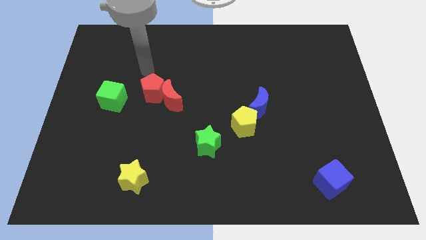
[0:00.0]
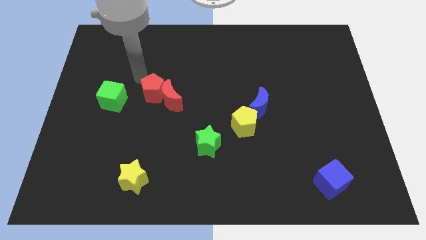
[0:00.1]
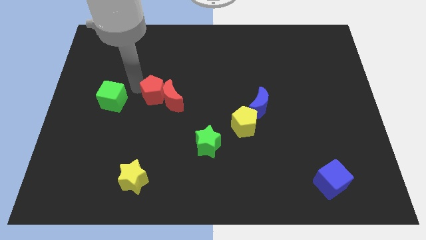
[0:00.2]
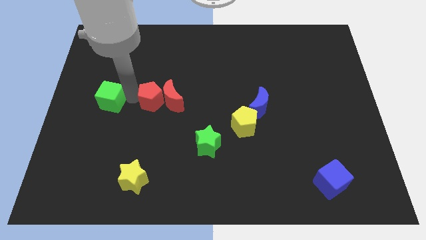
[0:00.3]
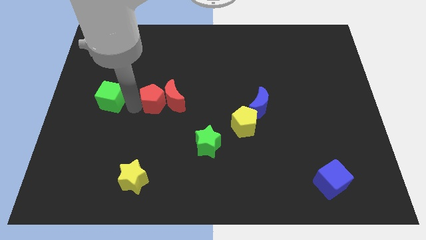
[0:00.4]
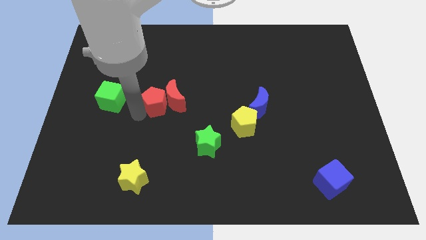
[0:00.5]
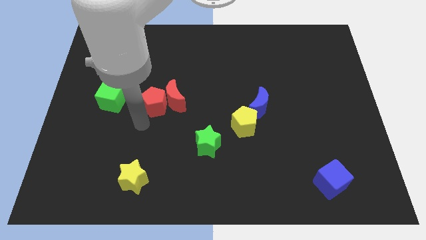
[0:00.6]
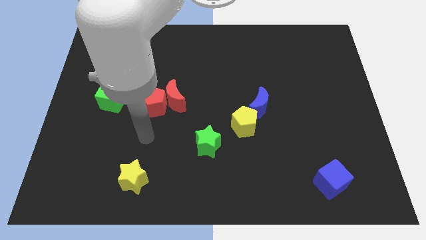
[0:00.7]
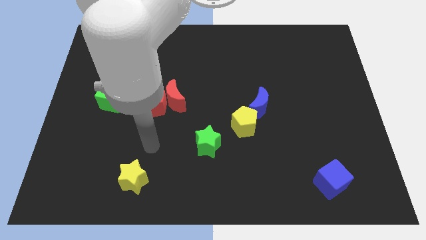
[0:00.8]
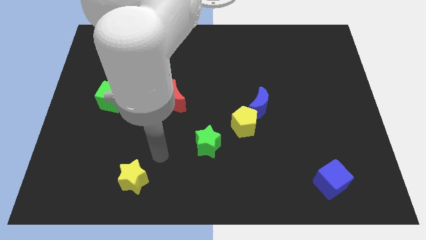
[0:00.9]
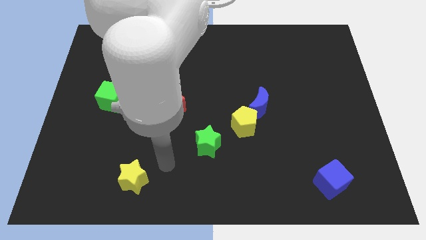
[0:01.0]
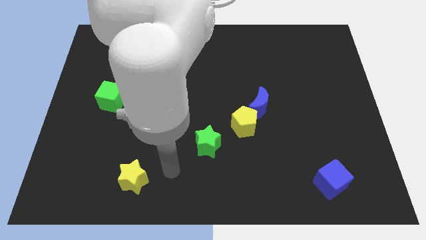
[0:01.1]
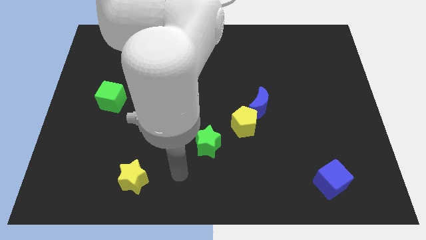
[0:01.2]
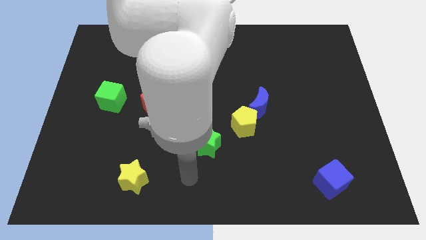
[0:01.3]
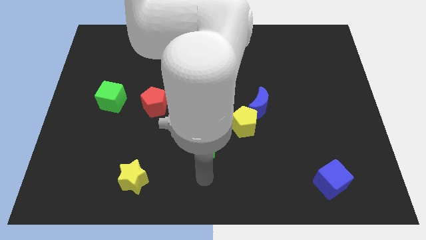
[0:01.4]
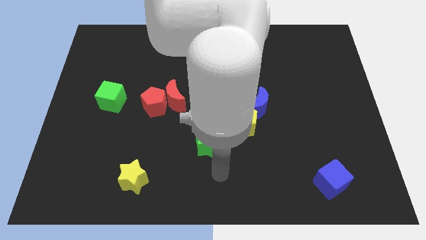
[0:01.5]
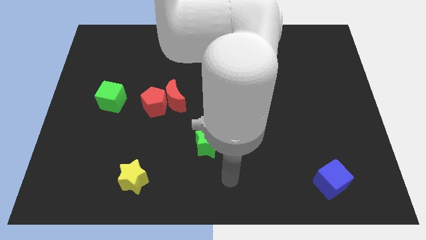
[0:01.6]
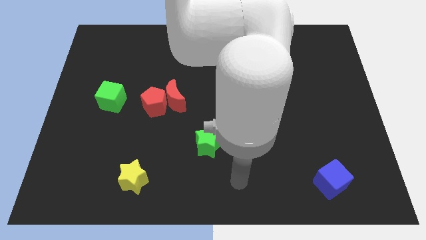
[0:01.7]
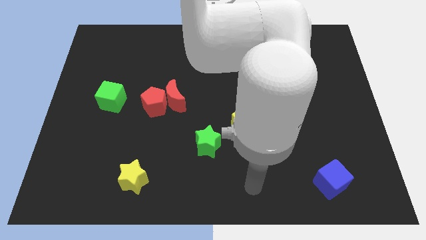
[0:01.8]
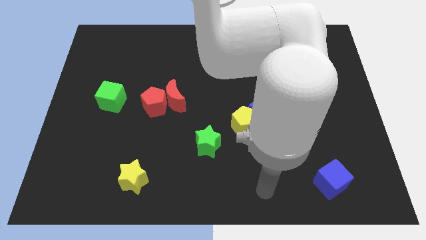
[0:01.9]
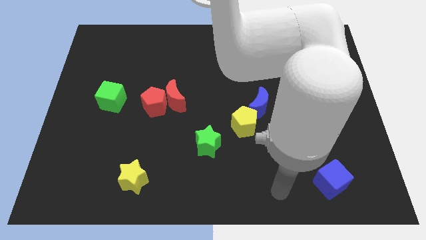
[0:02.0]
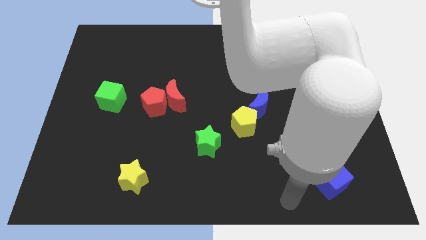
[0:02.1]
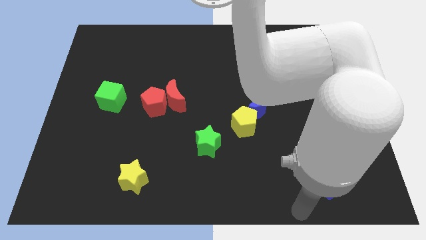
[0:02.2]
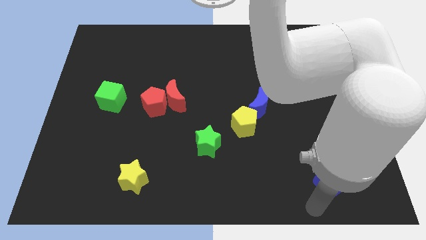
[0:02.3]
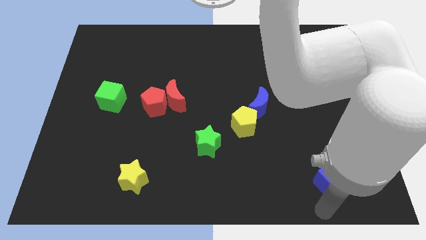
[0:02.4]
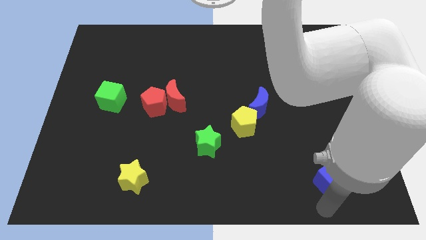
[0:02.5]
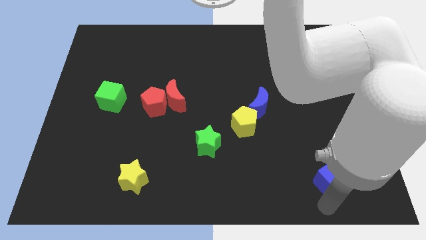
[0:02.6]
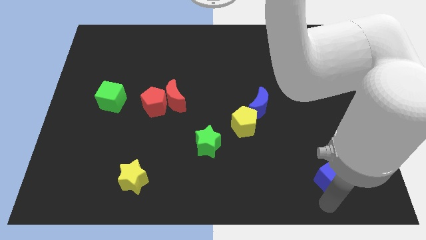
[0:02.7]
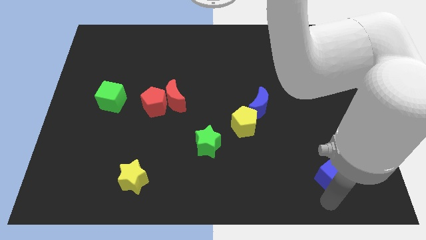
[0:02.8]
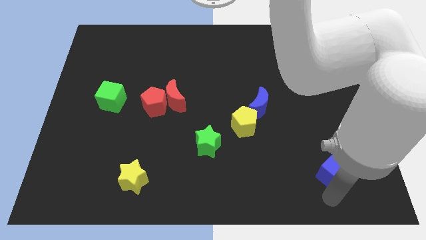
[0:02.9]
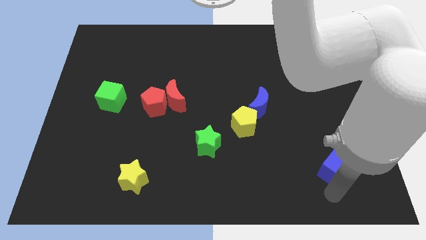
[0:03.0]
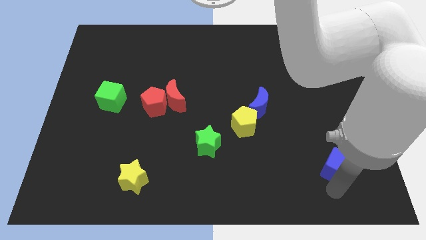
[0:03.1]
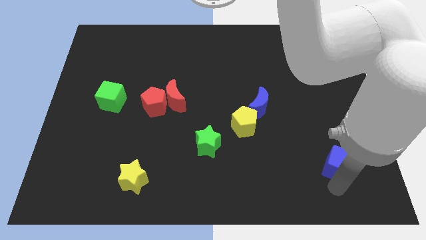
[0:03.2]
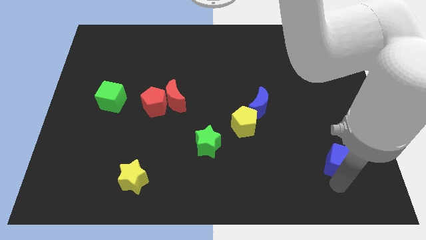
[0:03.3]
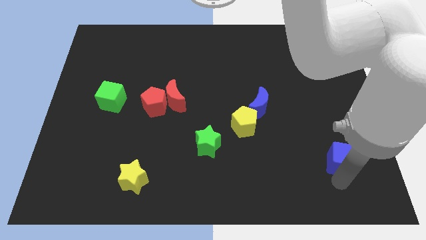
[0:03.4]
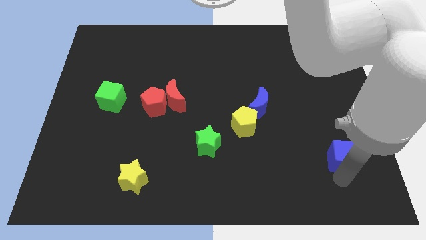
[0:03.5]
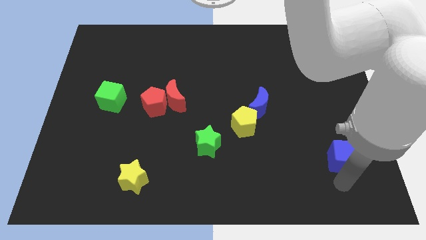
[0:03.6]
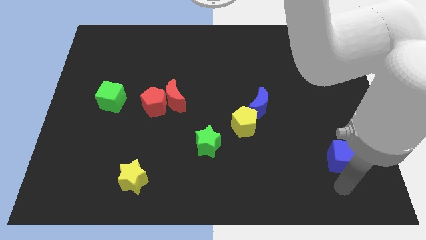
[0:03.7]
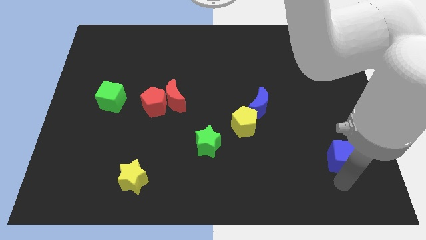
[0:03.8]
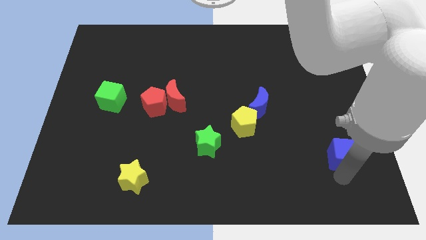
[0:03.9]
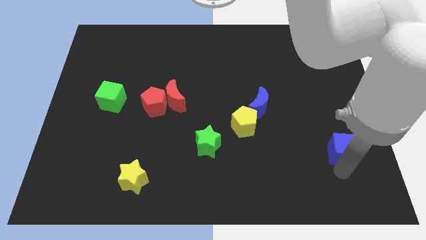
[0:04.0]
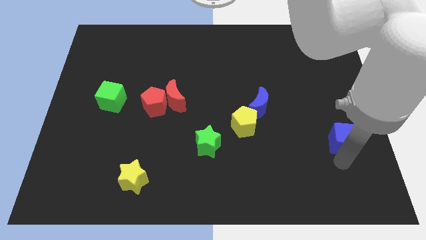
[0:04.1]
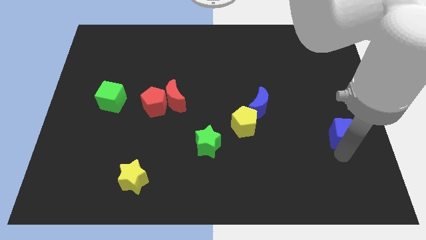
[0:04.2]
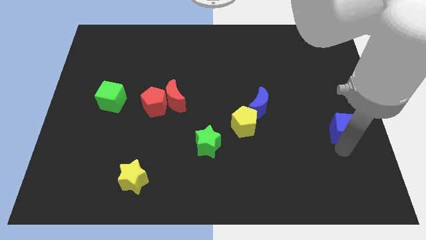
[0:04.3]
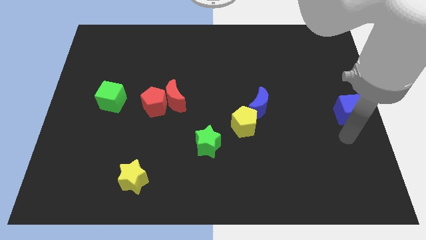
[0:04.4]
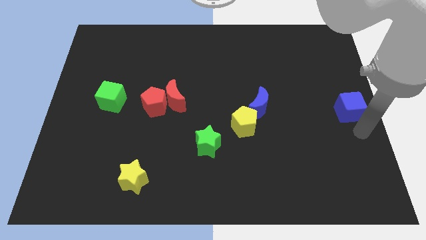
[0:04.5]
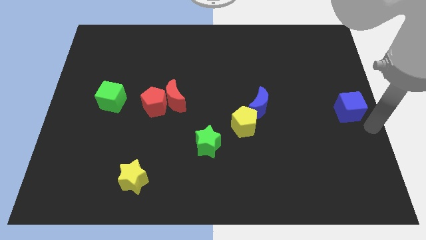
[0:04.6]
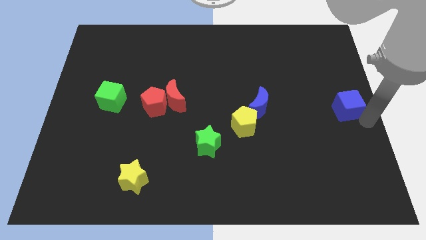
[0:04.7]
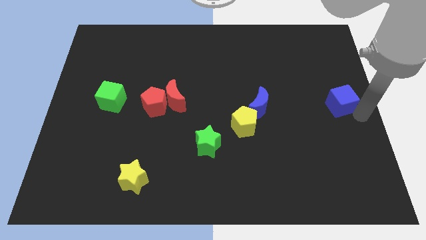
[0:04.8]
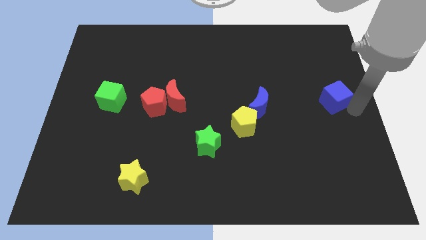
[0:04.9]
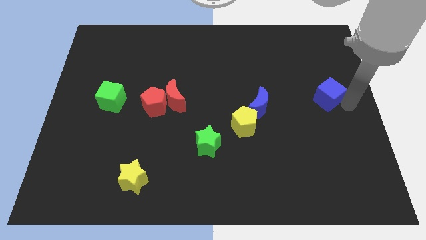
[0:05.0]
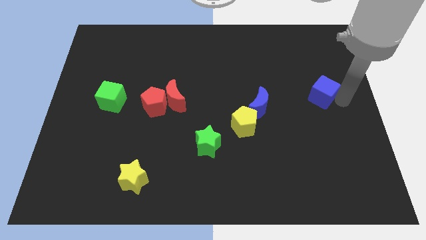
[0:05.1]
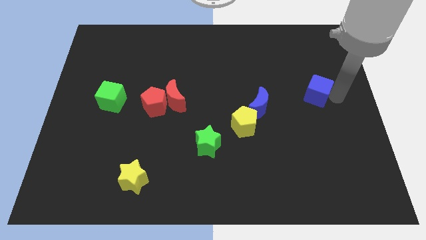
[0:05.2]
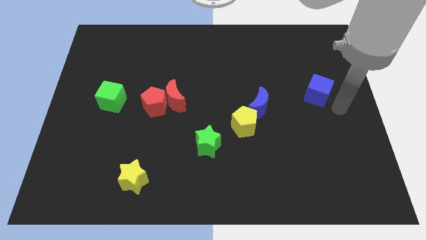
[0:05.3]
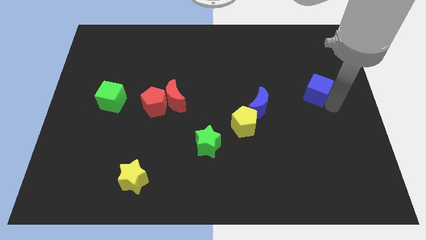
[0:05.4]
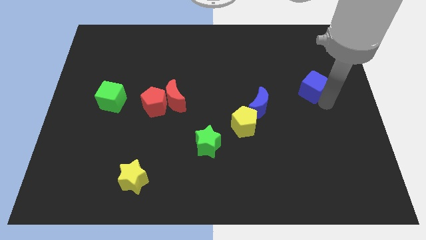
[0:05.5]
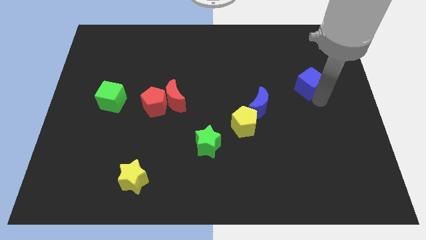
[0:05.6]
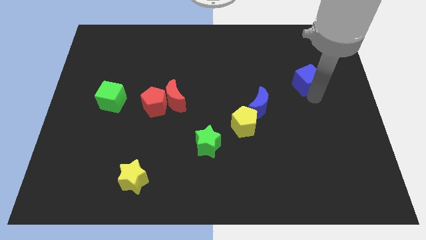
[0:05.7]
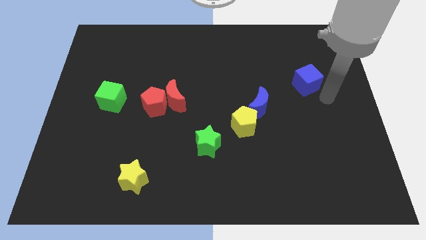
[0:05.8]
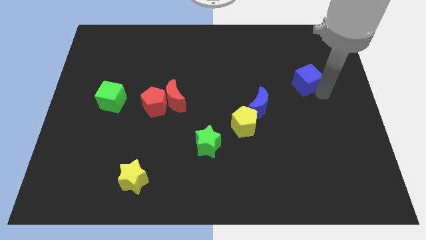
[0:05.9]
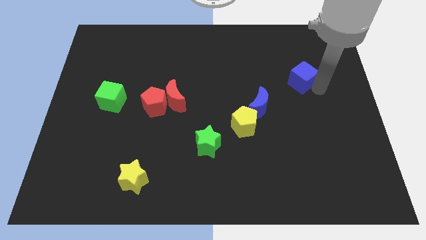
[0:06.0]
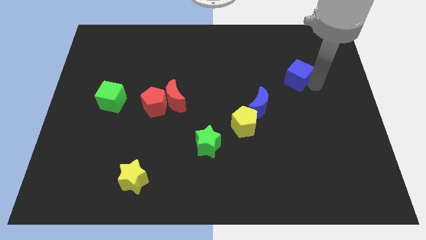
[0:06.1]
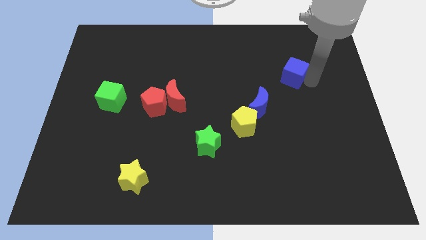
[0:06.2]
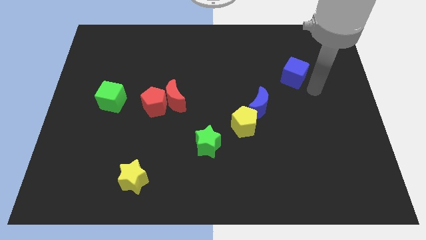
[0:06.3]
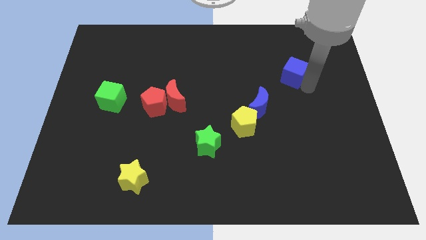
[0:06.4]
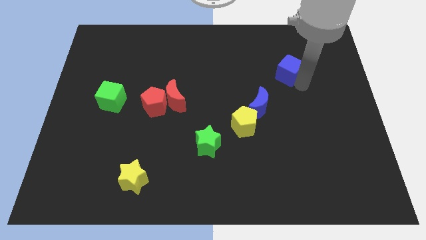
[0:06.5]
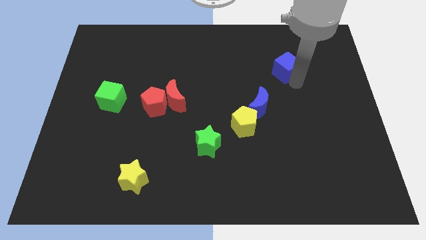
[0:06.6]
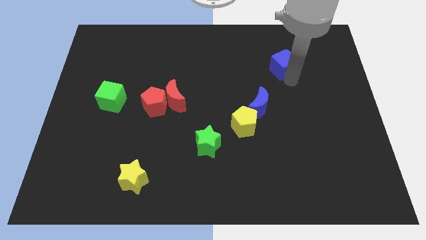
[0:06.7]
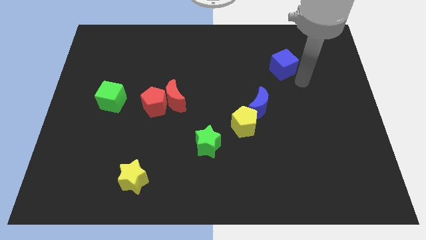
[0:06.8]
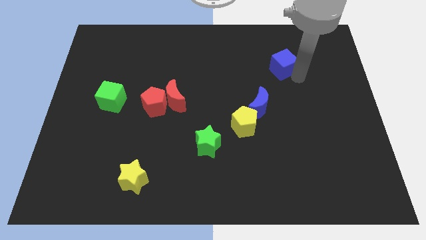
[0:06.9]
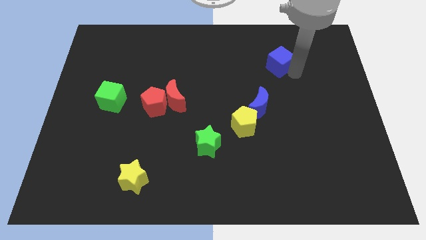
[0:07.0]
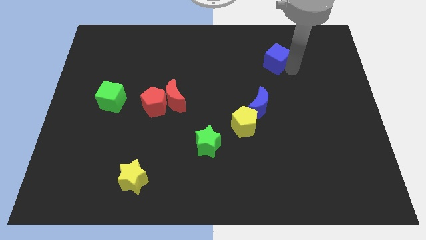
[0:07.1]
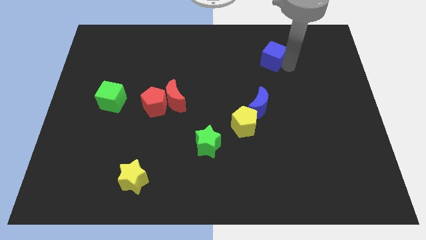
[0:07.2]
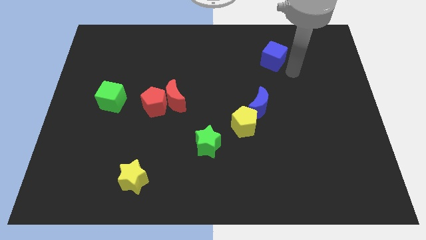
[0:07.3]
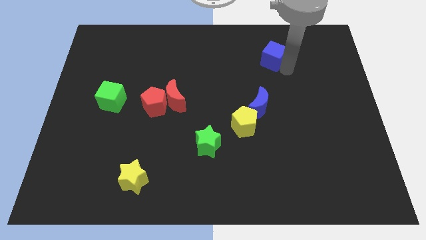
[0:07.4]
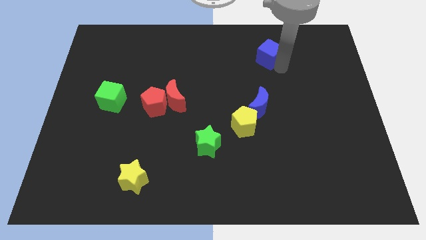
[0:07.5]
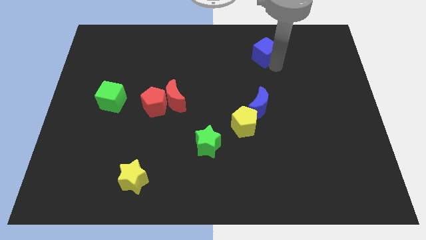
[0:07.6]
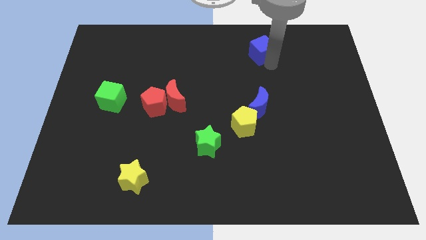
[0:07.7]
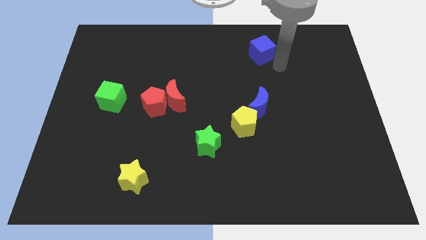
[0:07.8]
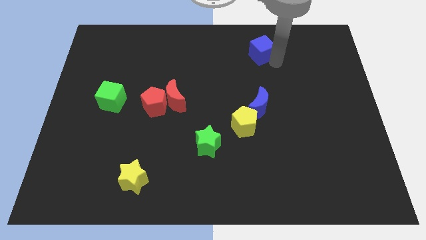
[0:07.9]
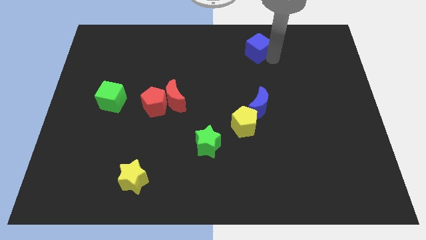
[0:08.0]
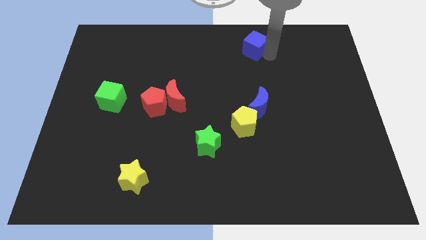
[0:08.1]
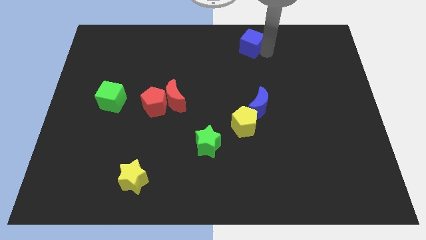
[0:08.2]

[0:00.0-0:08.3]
put the blue cube to the top side
